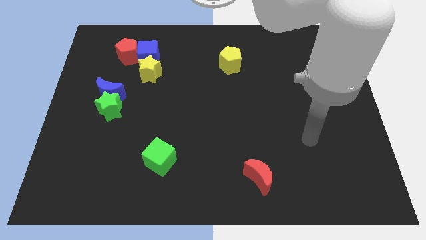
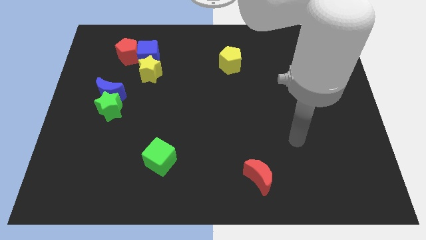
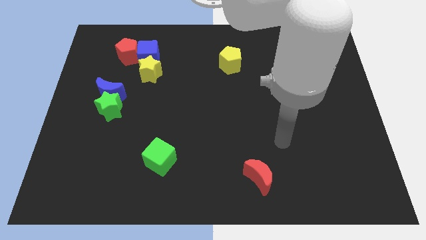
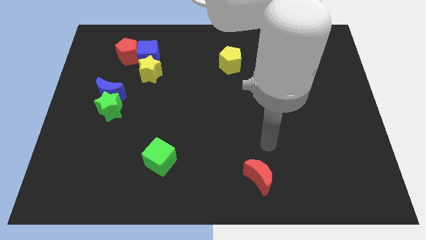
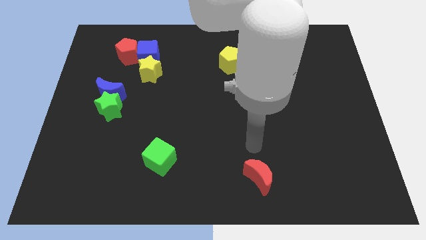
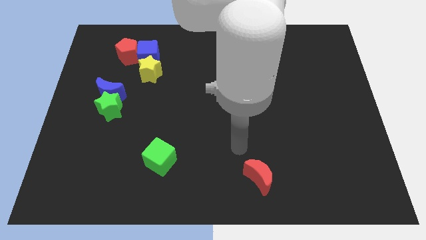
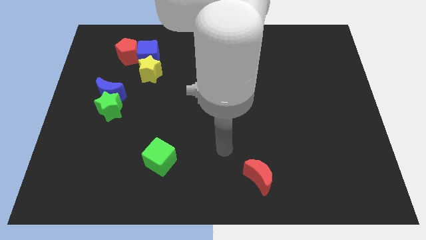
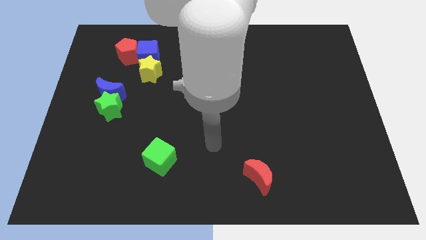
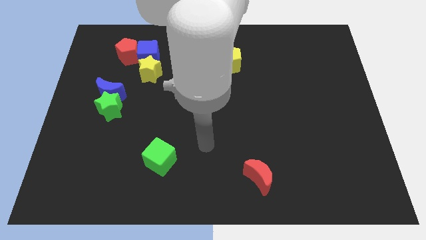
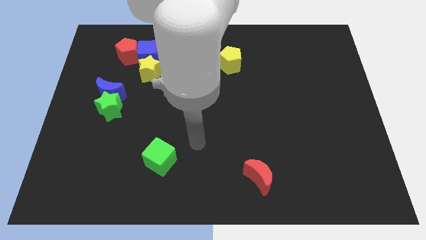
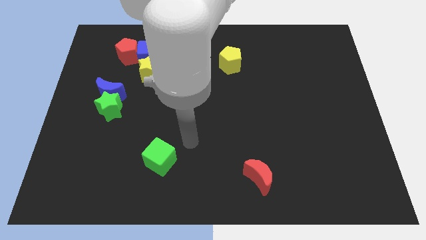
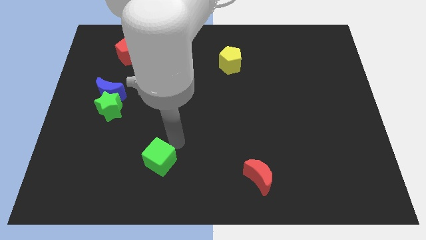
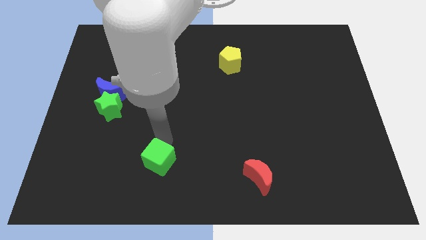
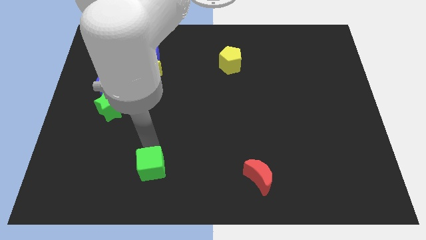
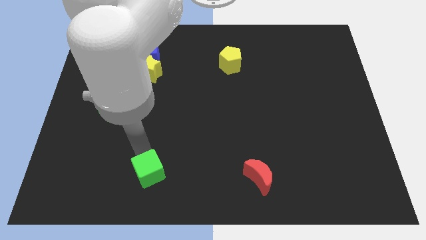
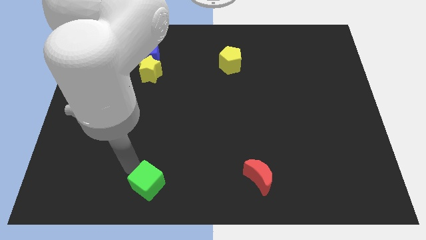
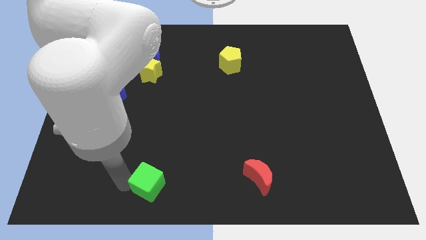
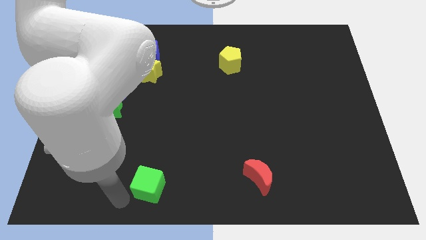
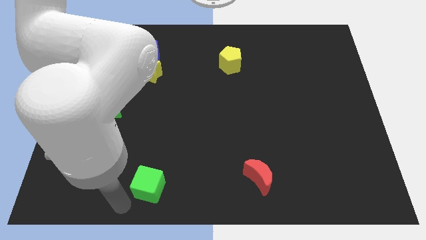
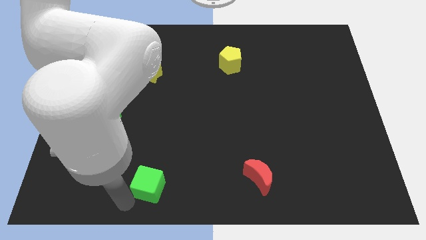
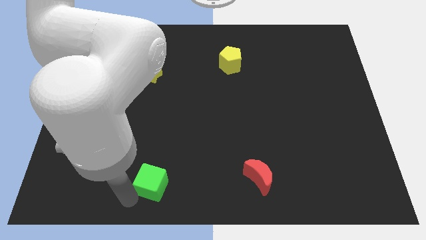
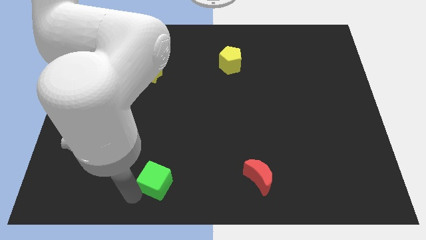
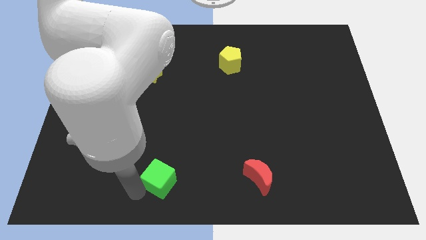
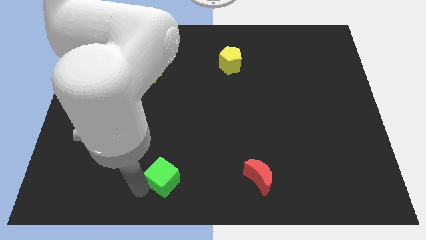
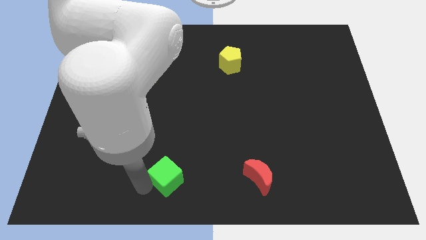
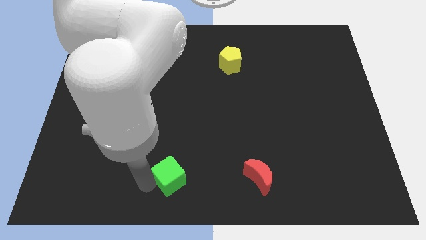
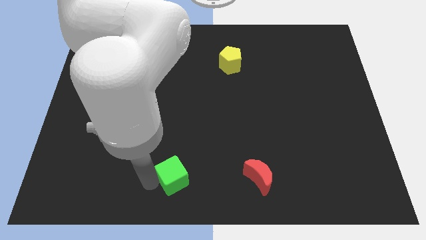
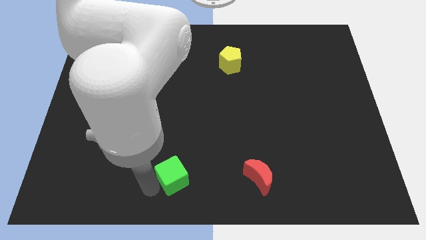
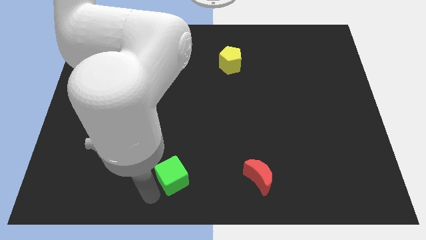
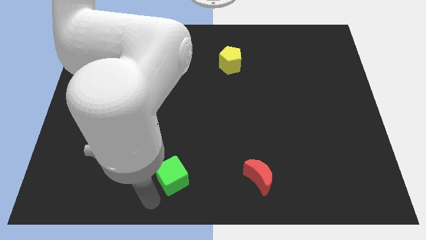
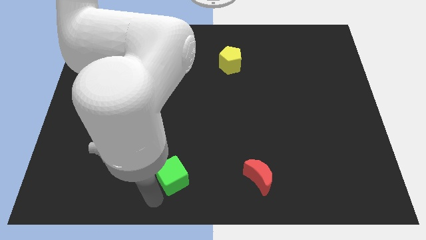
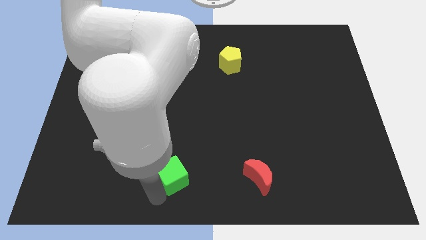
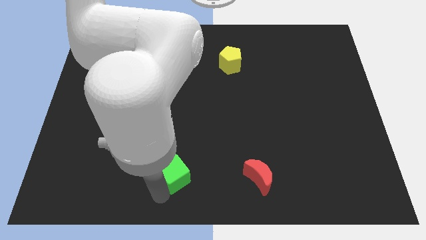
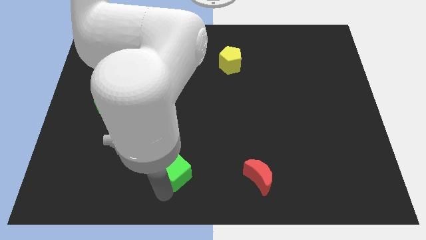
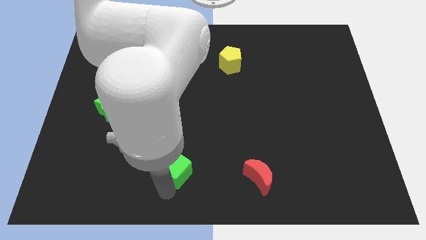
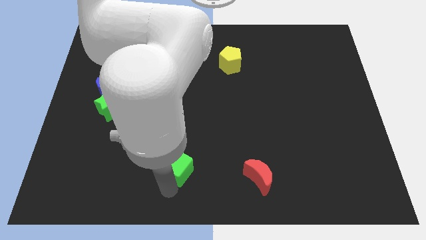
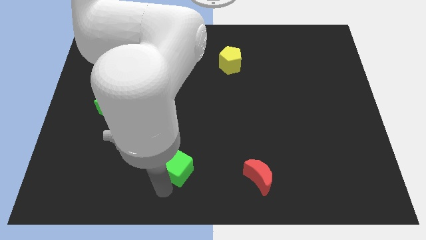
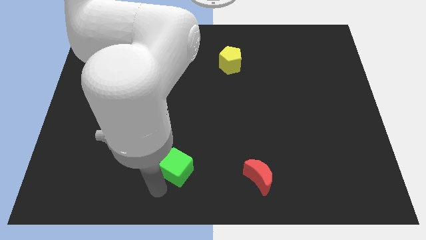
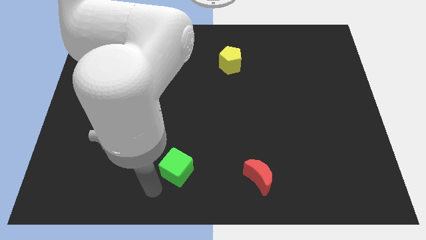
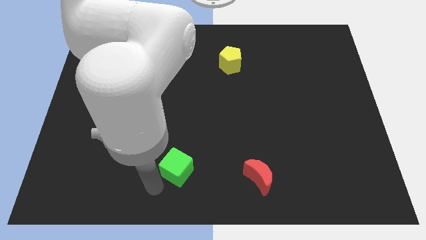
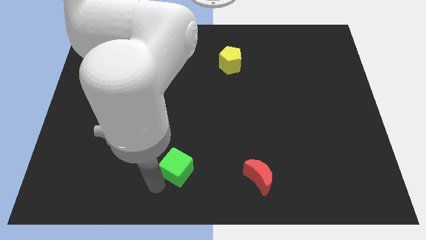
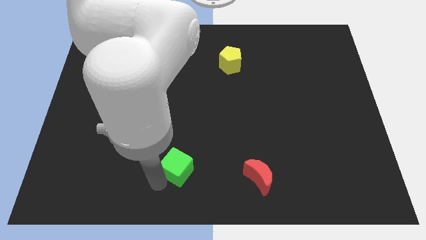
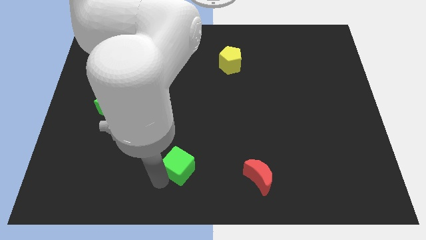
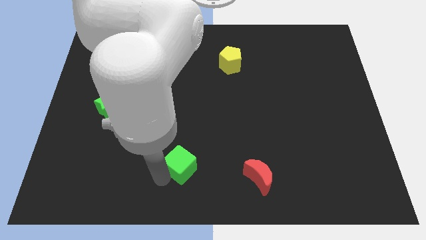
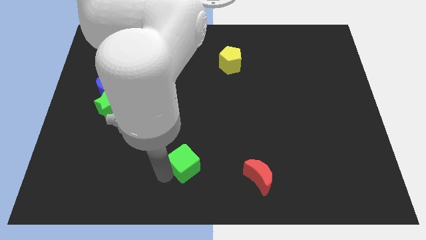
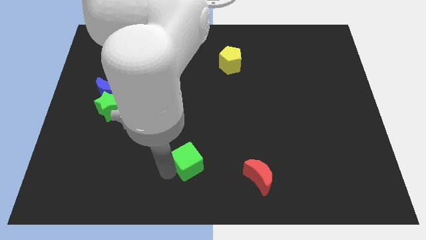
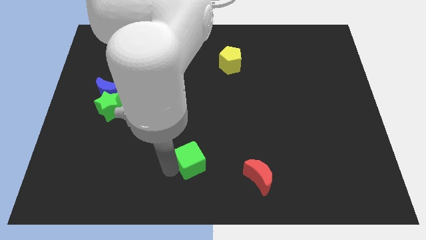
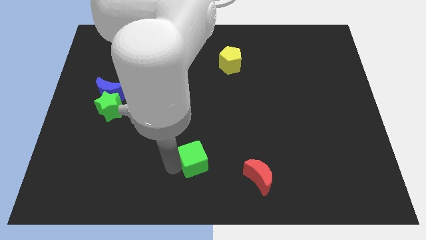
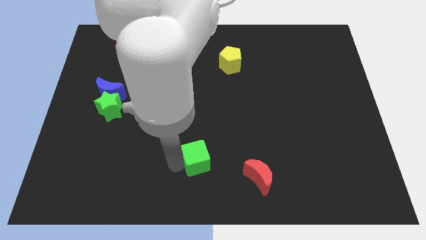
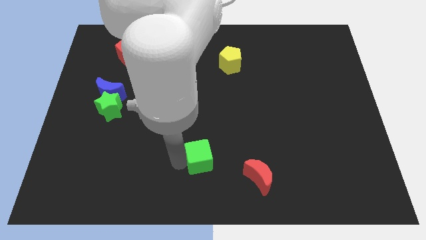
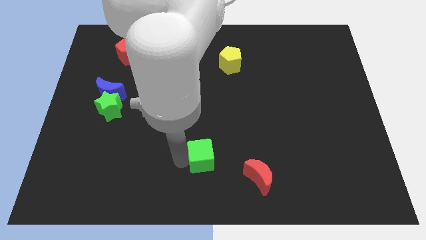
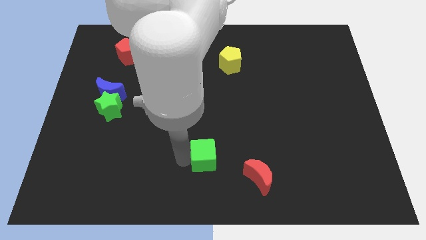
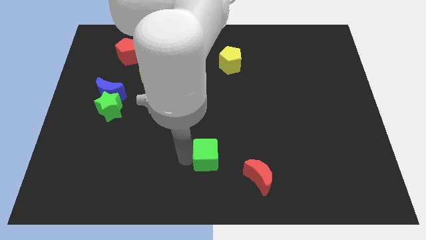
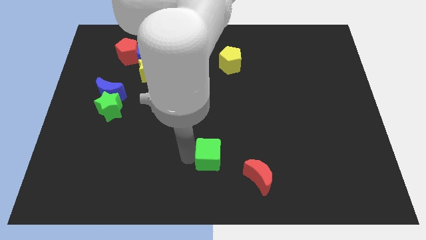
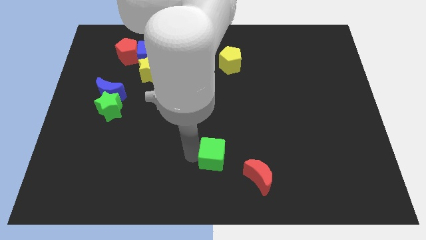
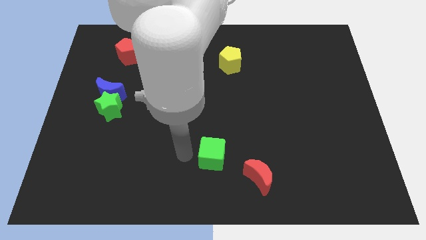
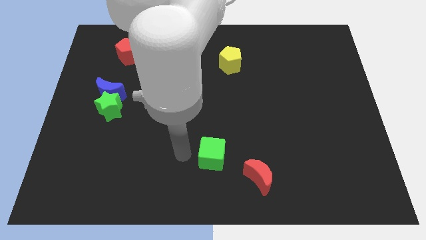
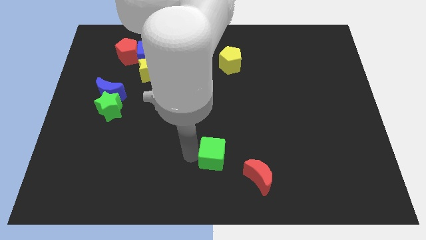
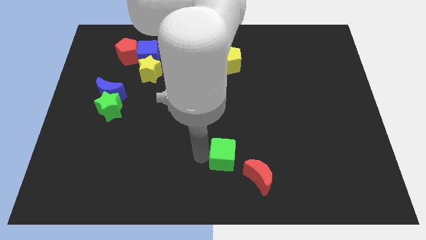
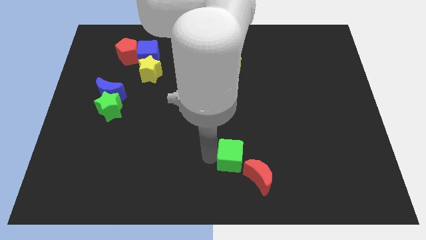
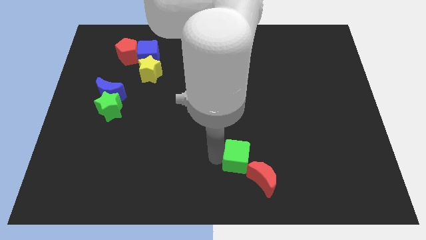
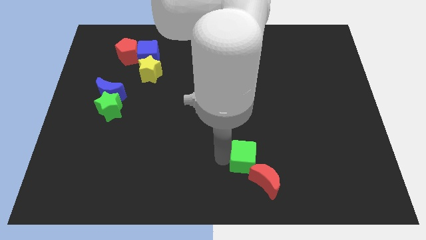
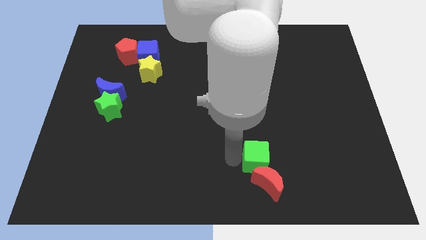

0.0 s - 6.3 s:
move the green cube to the right

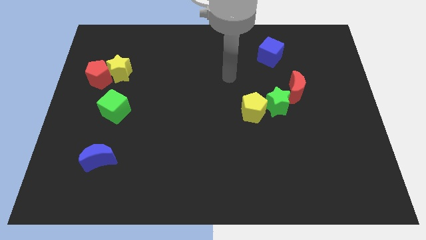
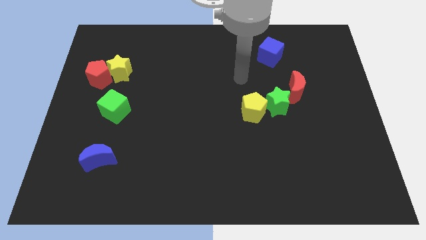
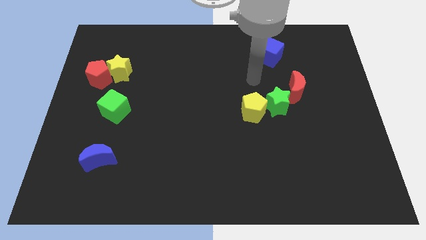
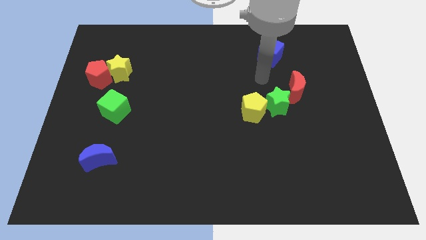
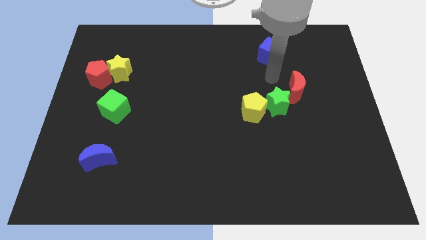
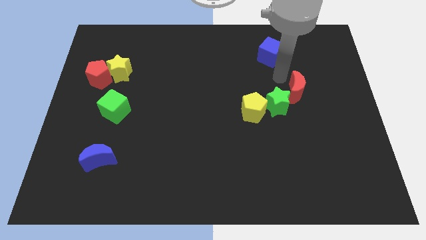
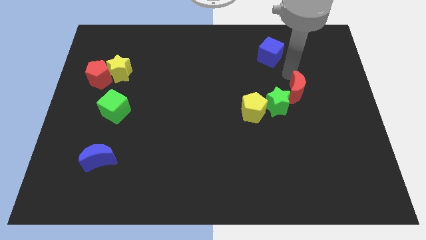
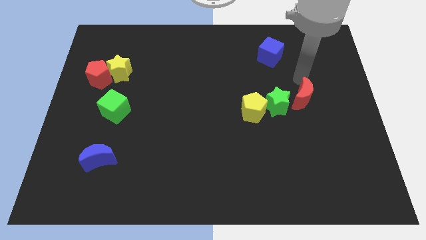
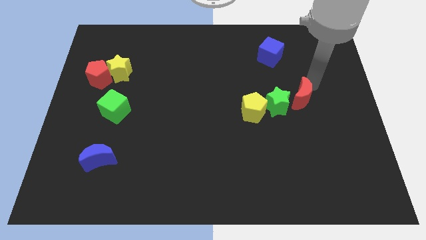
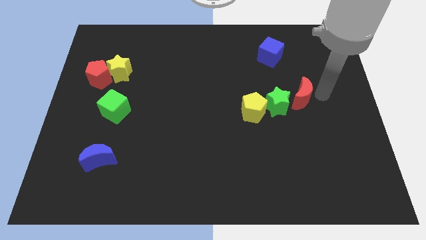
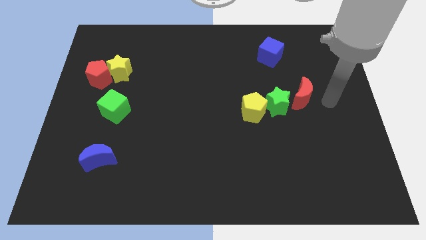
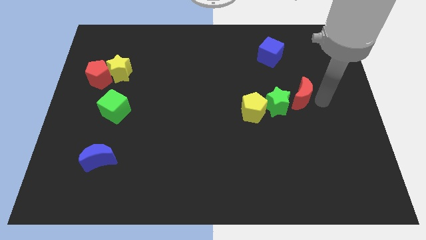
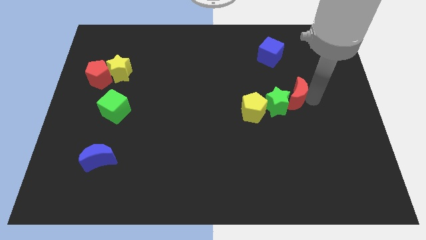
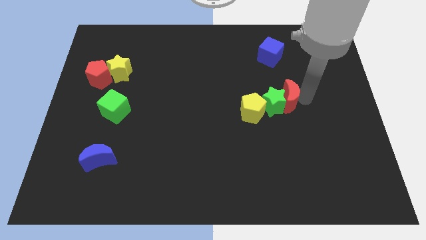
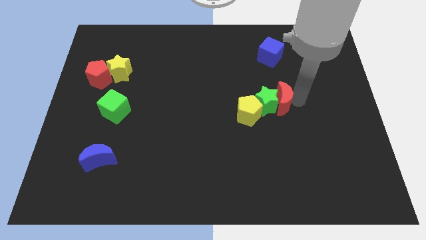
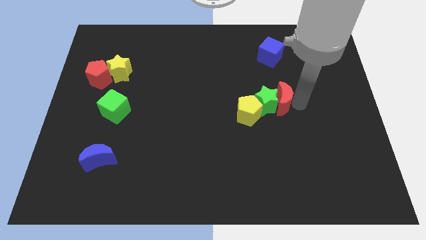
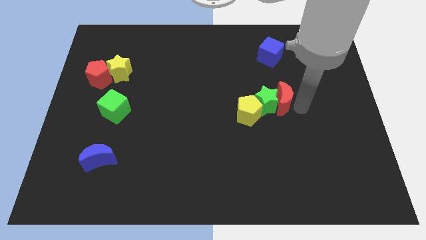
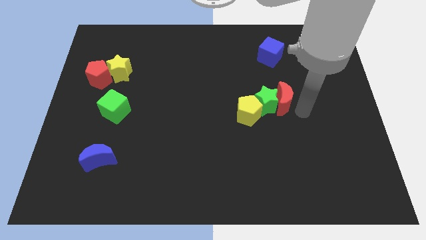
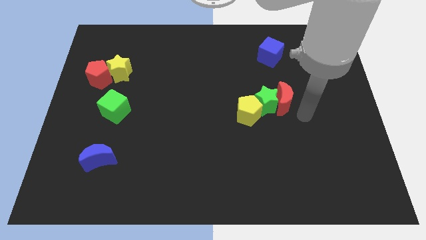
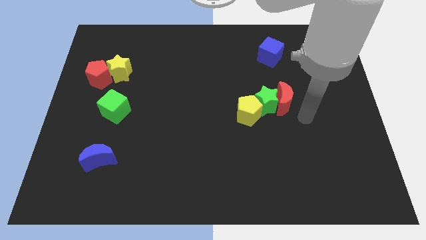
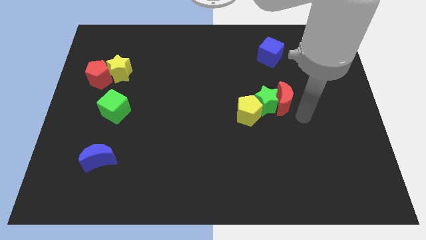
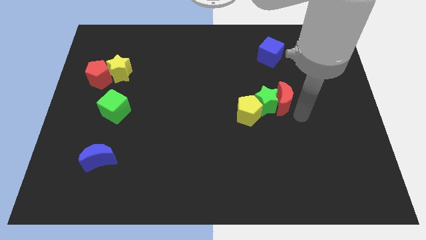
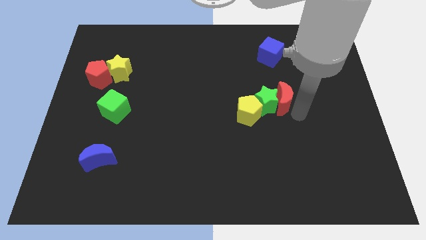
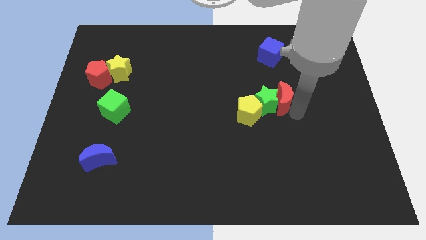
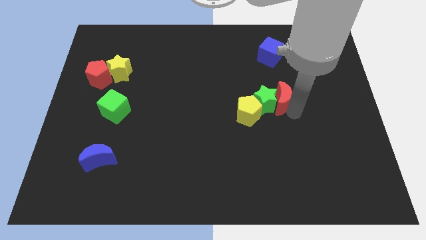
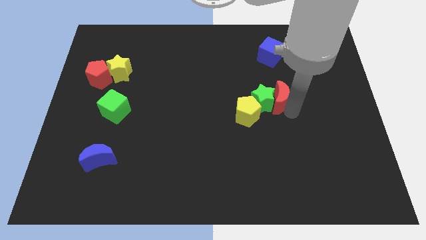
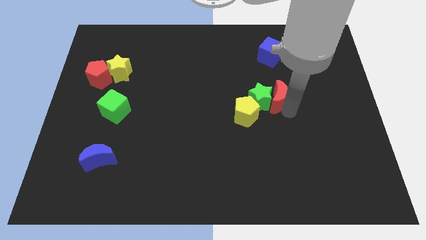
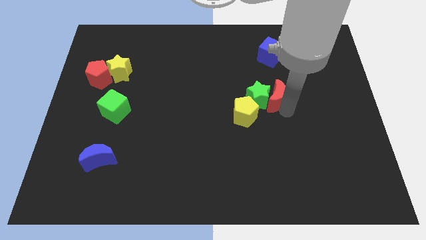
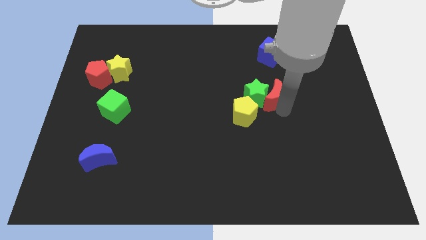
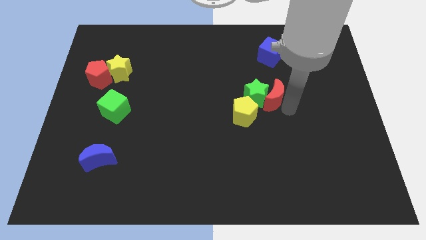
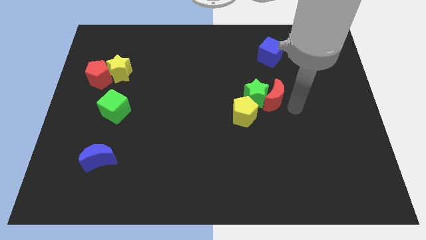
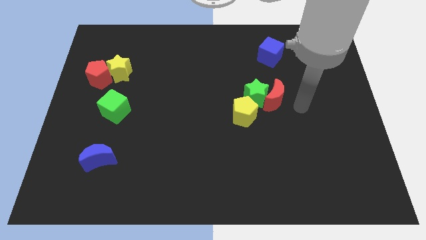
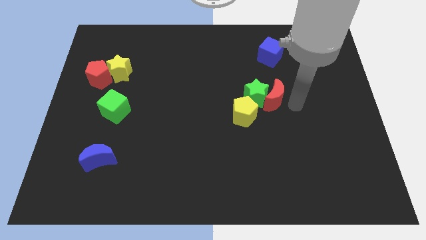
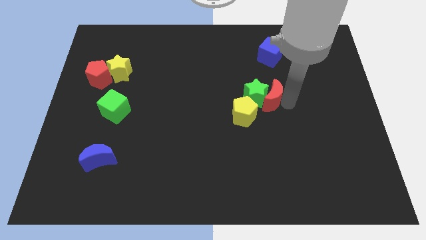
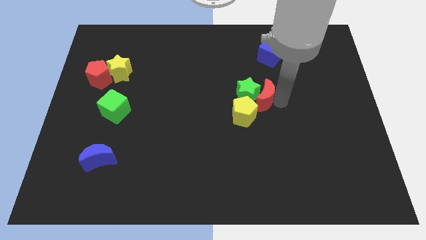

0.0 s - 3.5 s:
push the red moon to the left a little bit
